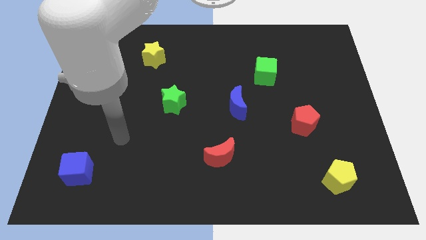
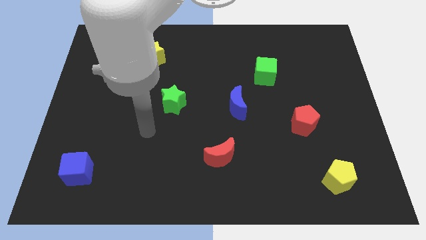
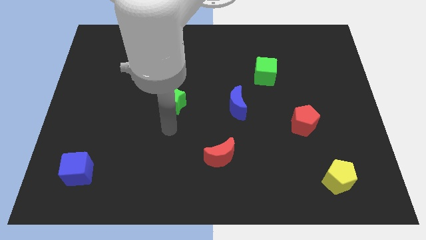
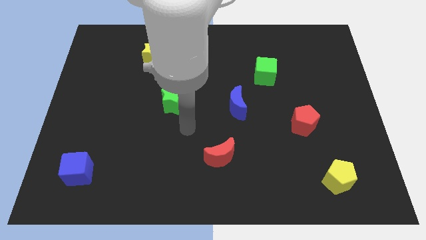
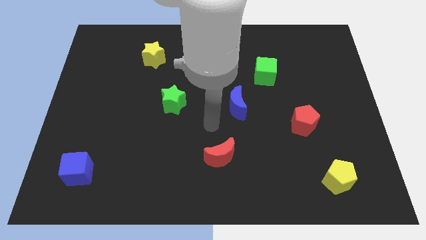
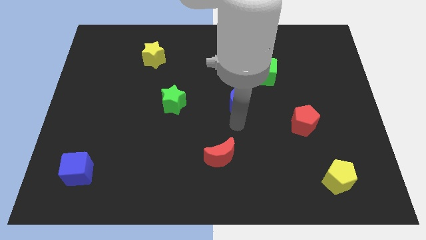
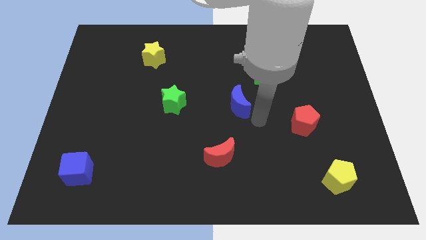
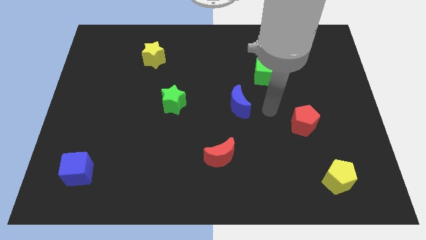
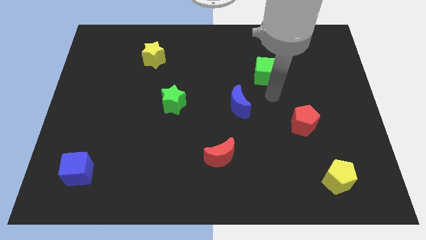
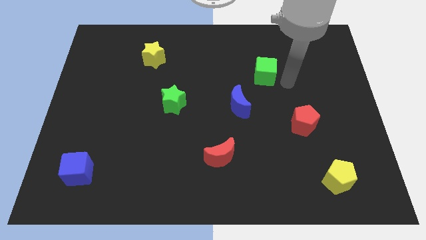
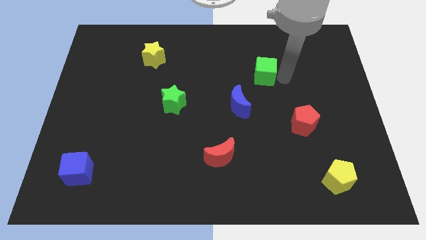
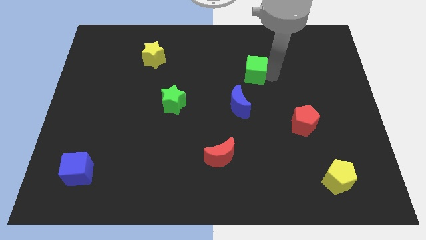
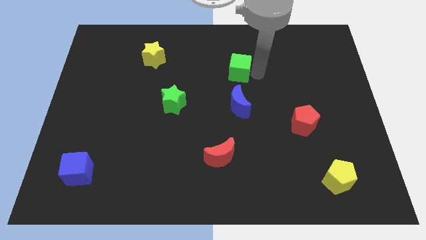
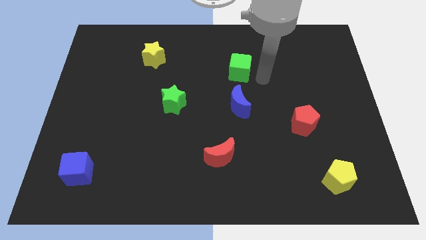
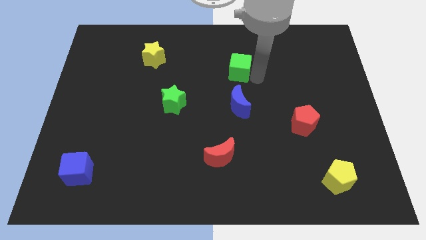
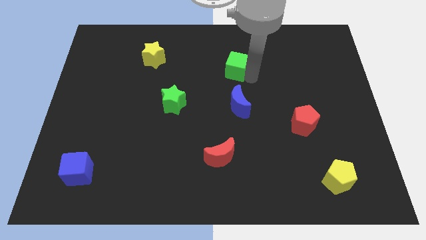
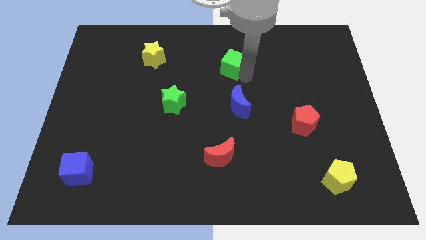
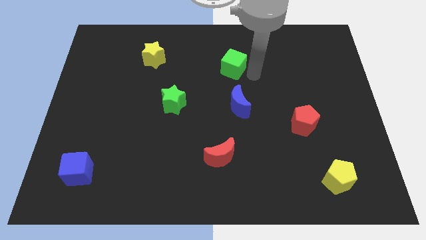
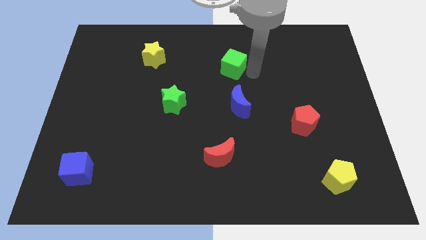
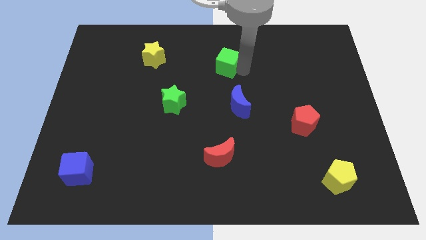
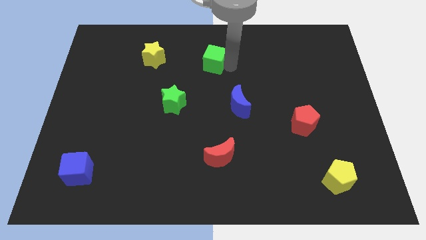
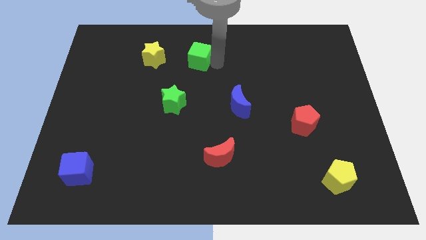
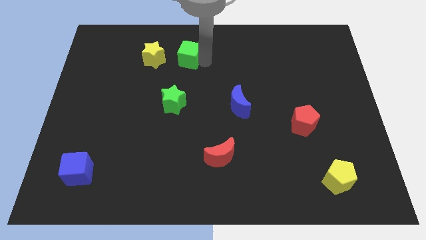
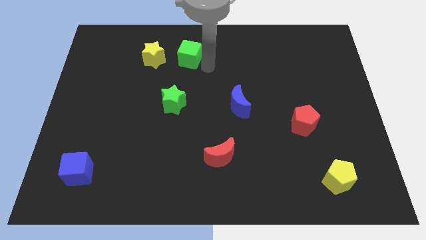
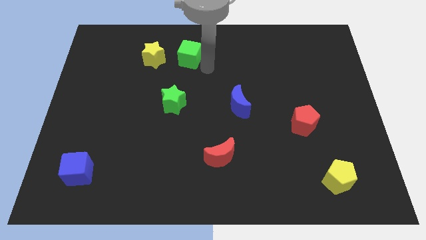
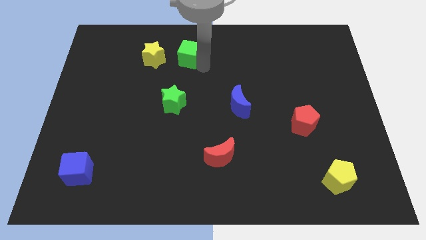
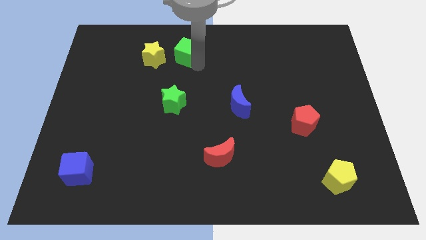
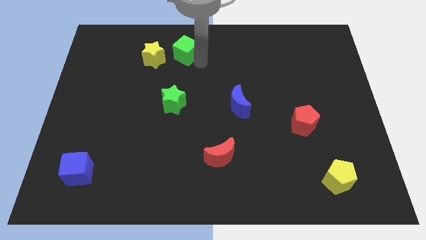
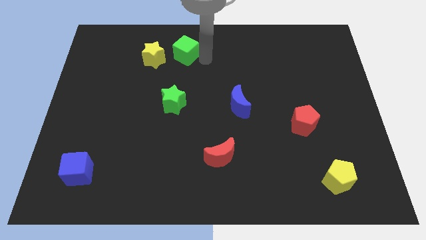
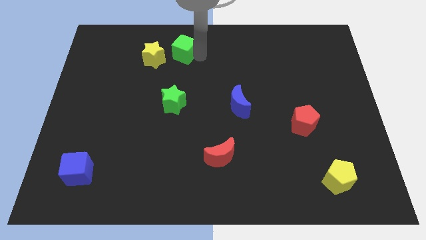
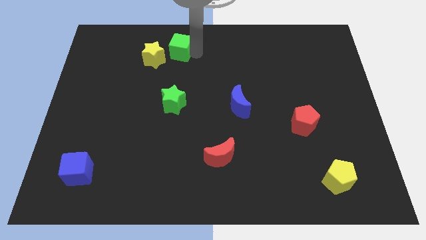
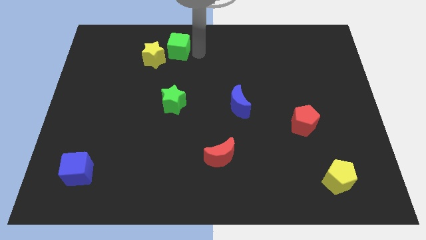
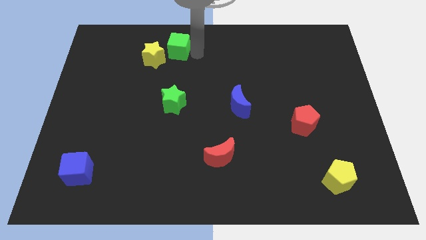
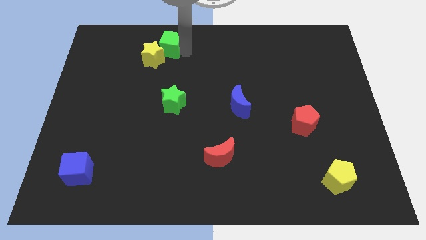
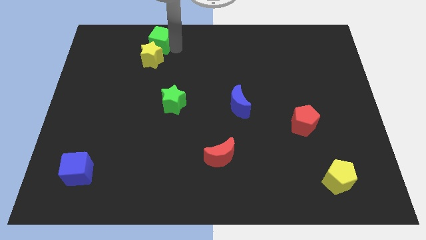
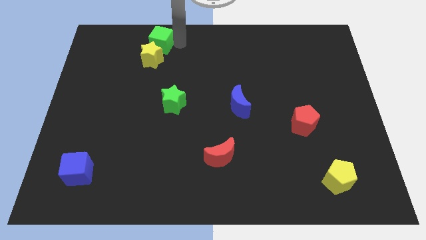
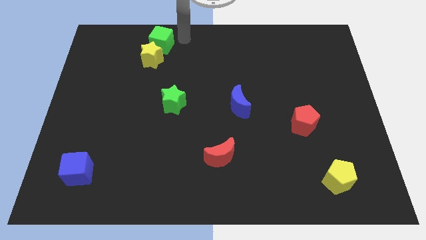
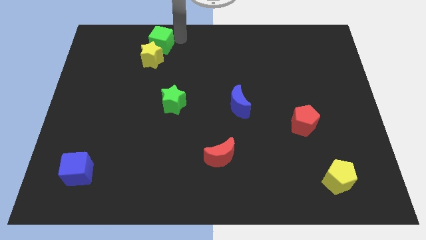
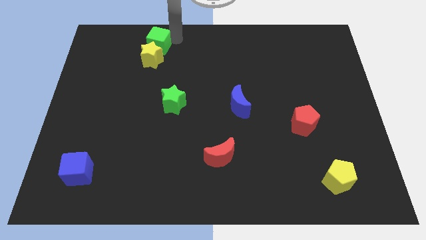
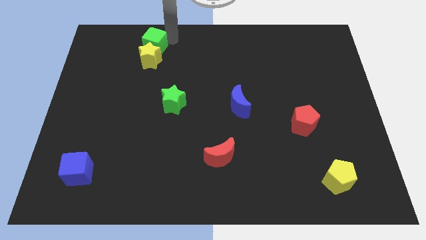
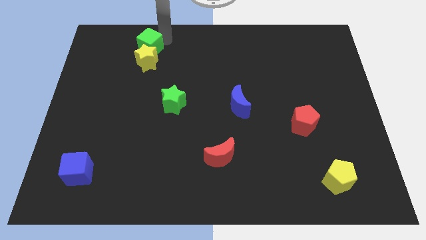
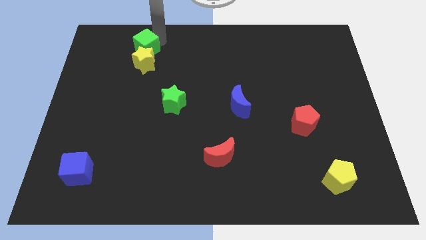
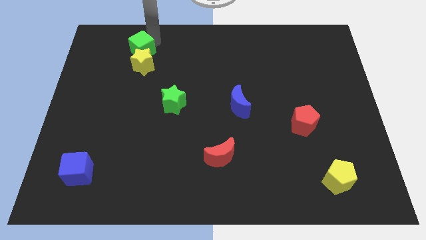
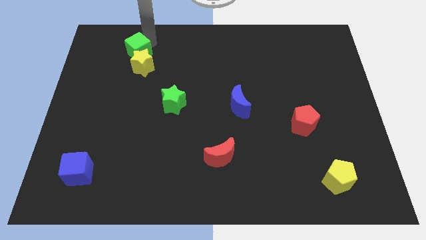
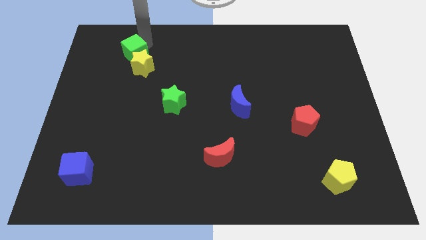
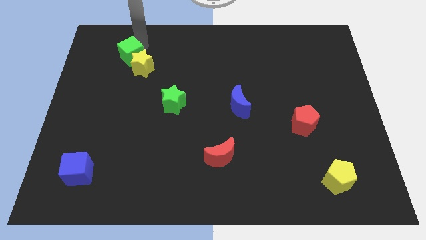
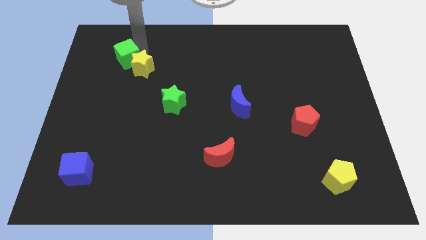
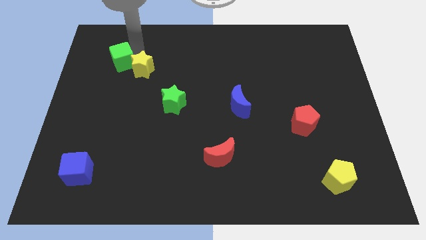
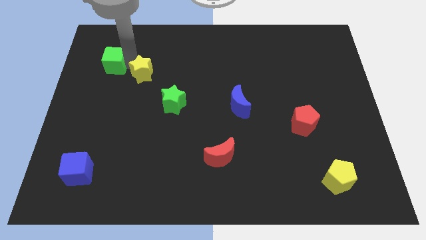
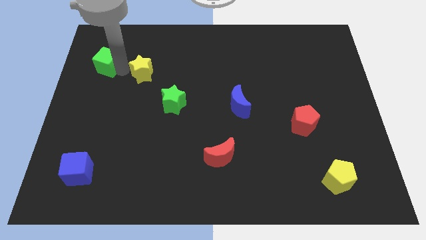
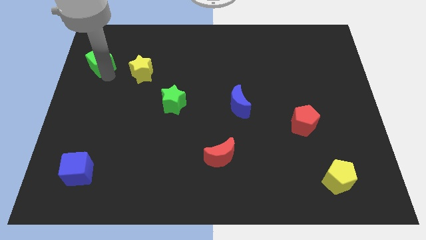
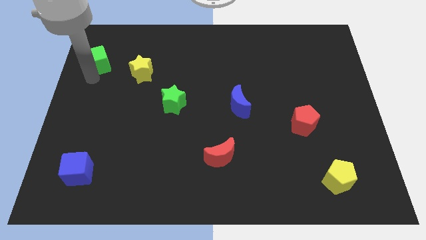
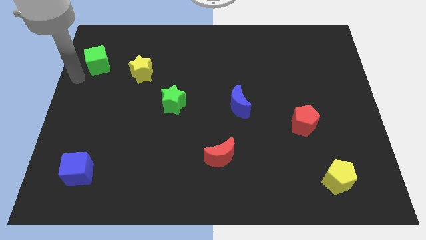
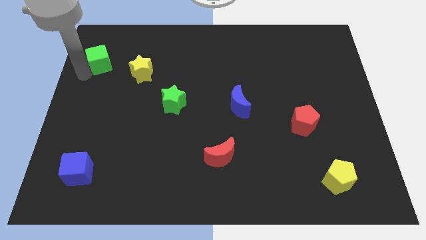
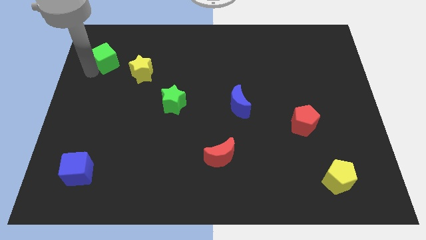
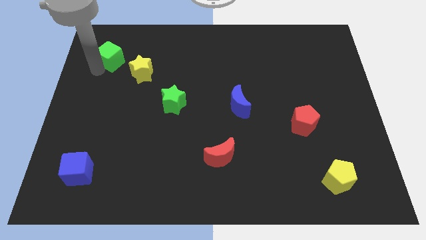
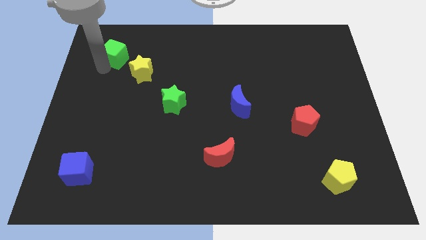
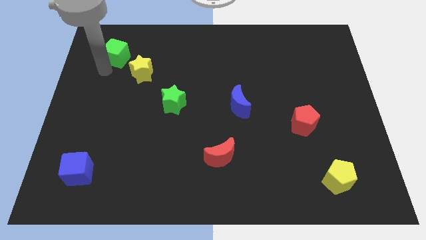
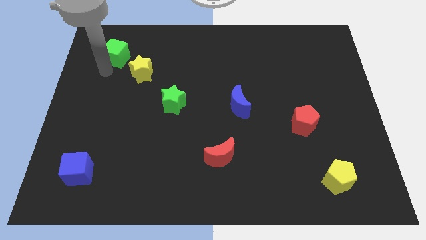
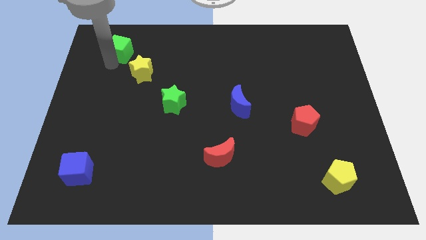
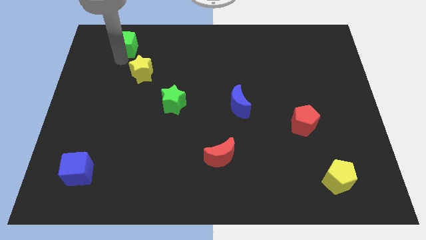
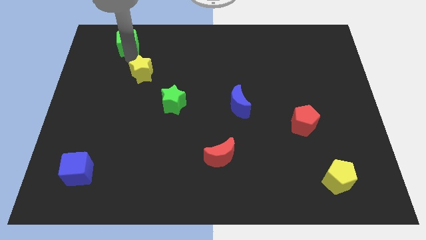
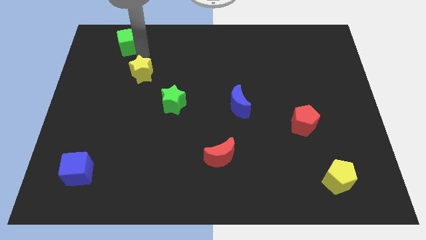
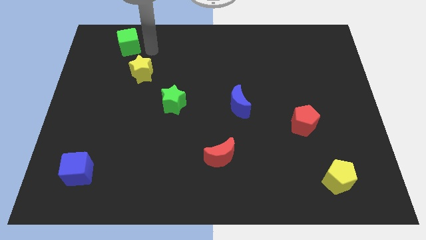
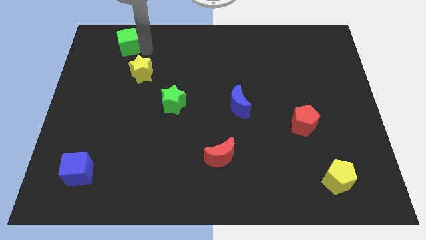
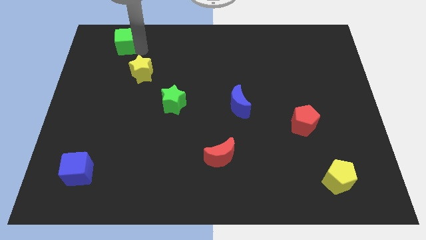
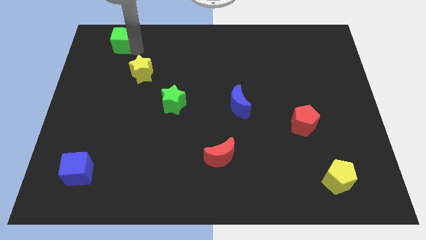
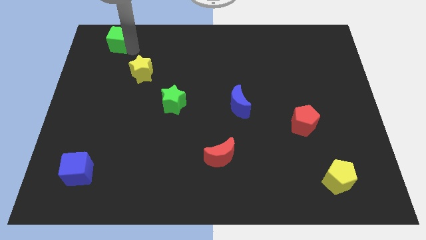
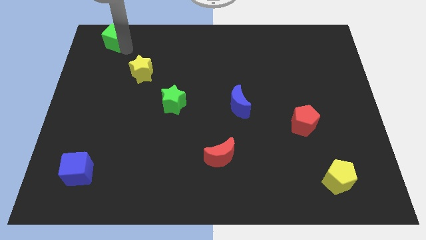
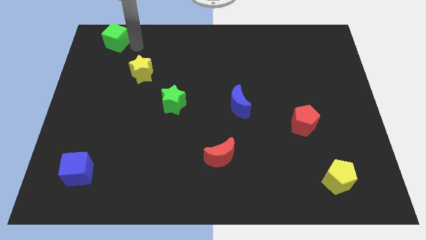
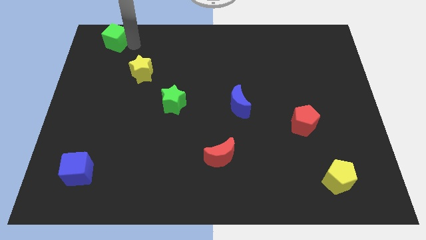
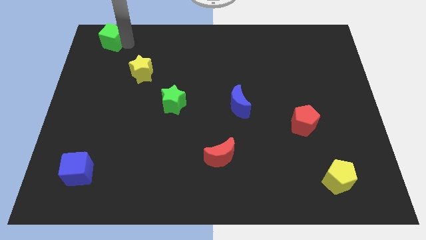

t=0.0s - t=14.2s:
slide the green cube to the top left corner
